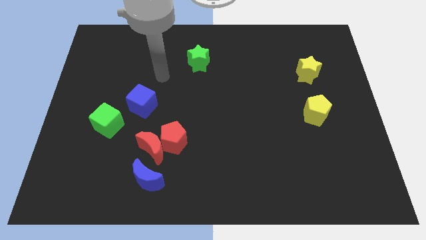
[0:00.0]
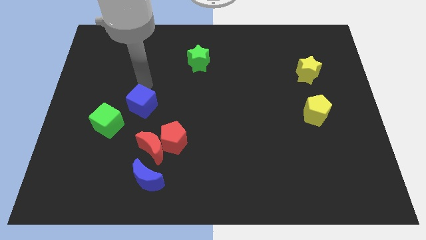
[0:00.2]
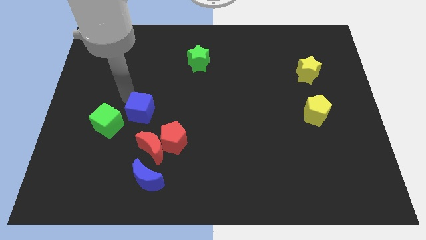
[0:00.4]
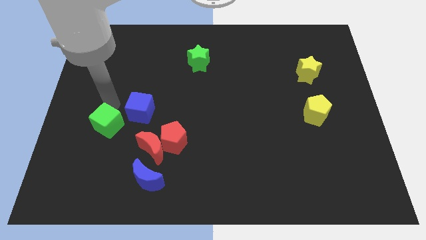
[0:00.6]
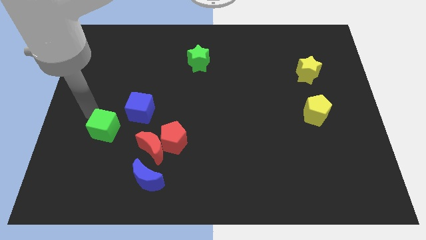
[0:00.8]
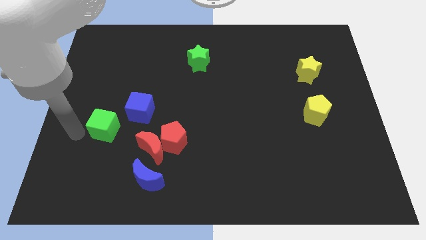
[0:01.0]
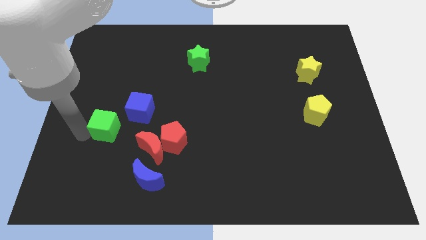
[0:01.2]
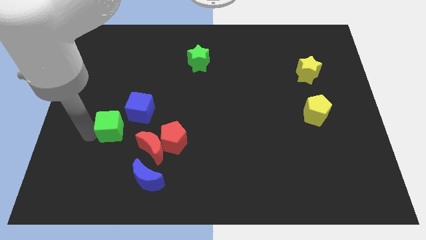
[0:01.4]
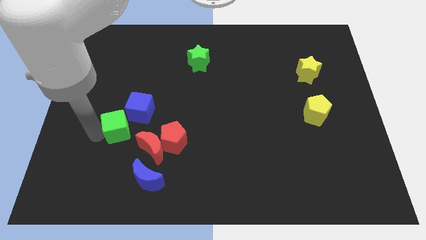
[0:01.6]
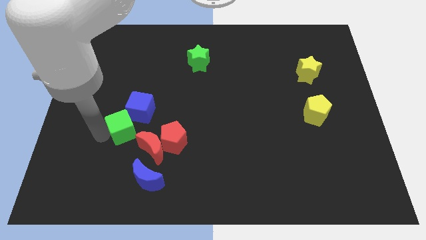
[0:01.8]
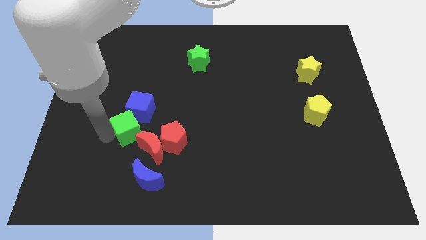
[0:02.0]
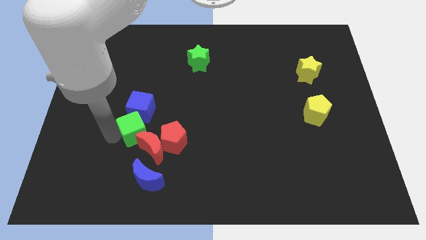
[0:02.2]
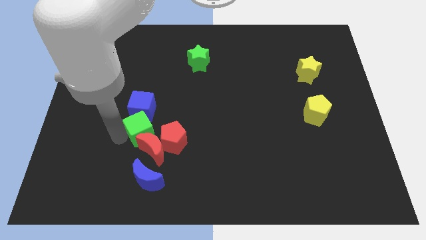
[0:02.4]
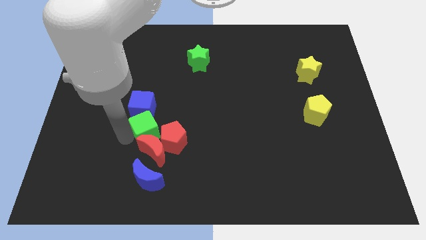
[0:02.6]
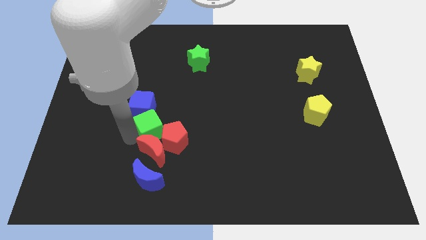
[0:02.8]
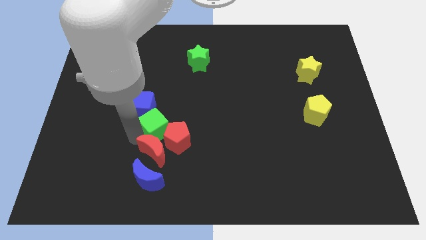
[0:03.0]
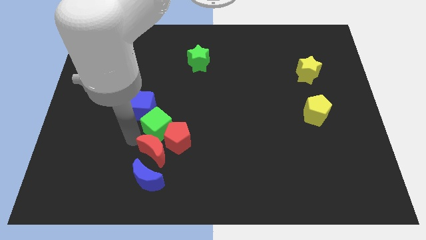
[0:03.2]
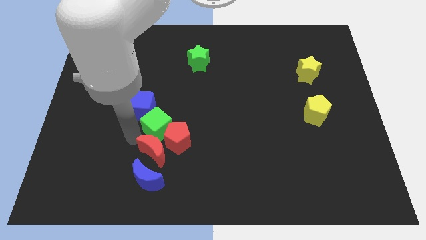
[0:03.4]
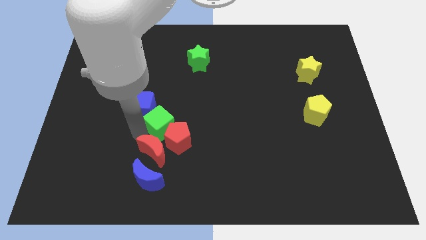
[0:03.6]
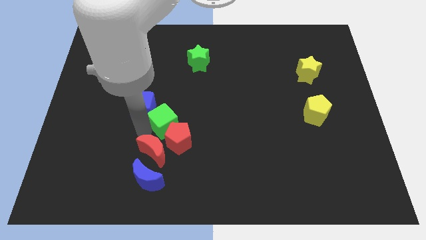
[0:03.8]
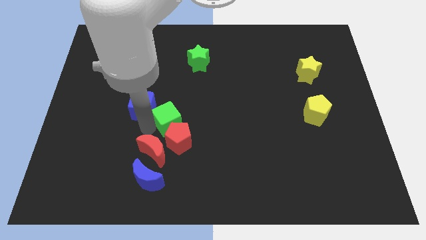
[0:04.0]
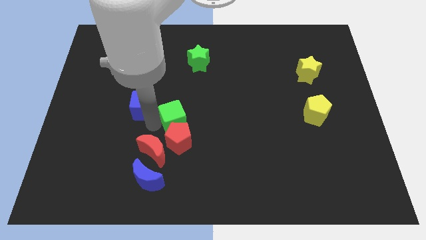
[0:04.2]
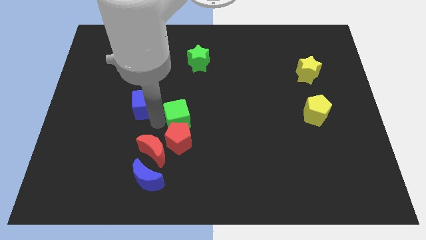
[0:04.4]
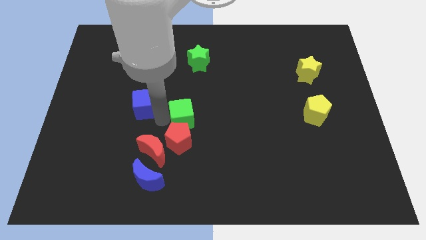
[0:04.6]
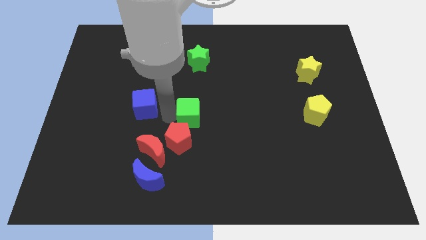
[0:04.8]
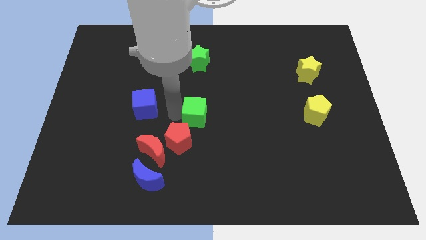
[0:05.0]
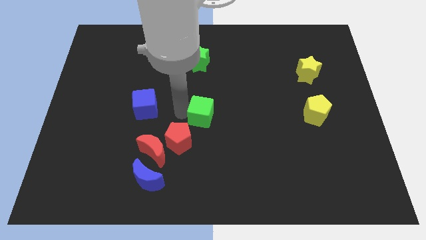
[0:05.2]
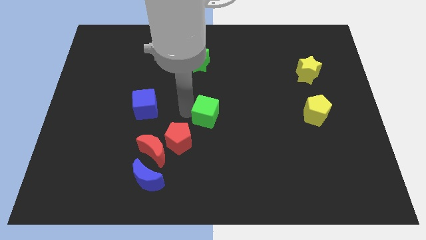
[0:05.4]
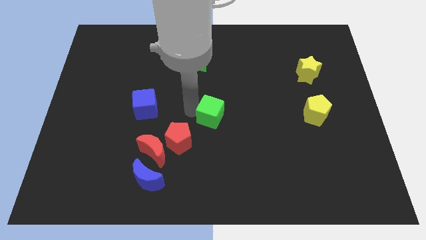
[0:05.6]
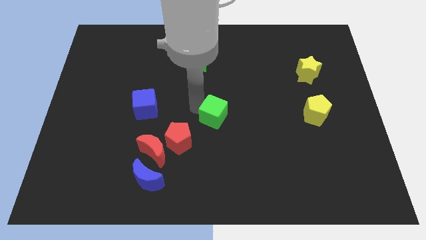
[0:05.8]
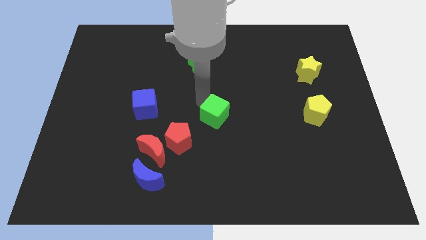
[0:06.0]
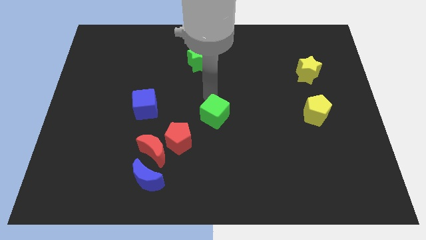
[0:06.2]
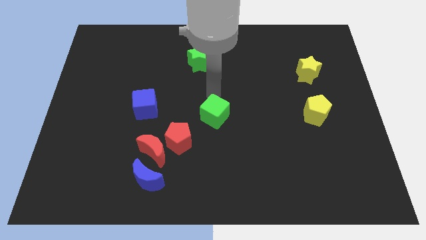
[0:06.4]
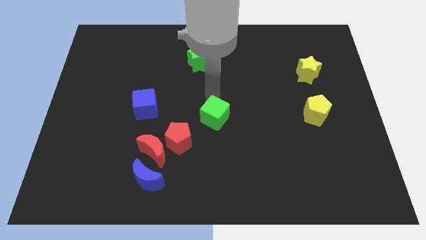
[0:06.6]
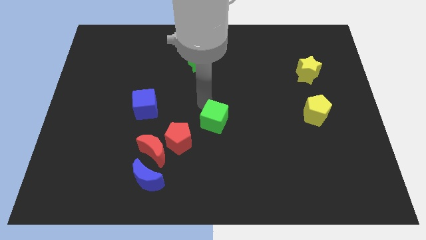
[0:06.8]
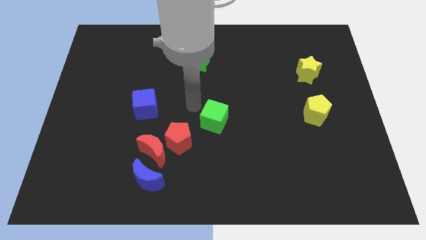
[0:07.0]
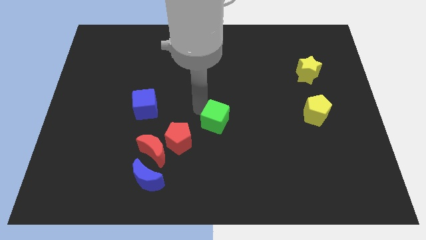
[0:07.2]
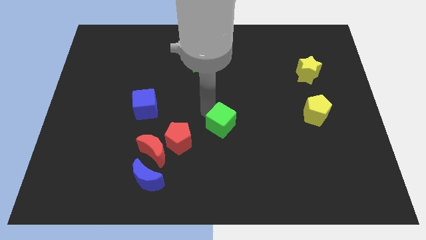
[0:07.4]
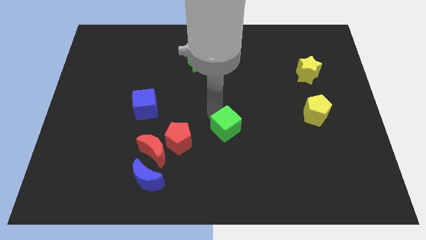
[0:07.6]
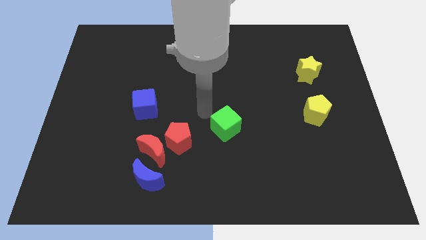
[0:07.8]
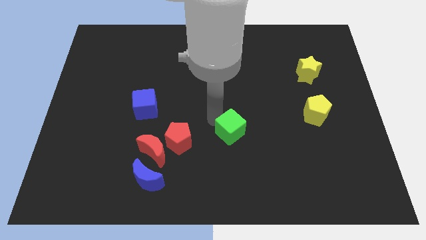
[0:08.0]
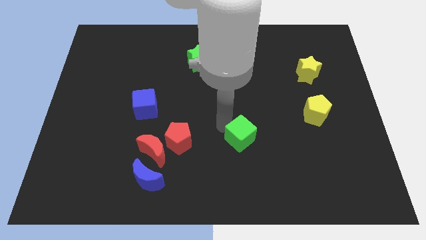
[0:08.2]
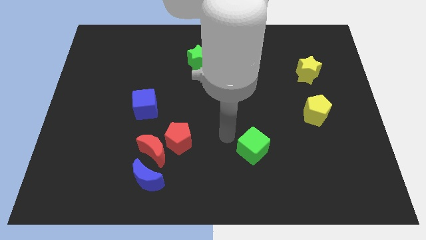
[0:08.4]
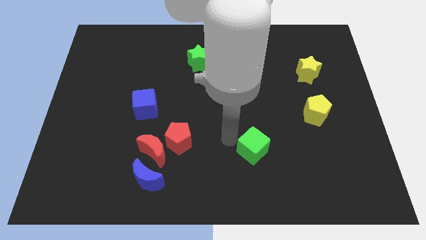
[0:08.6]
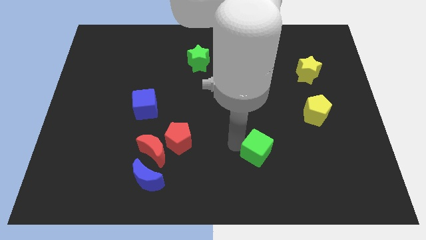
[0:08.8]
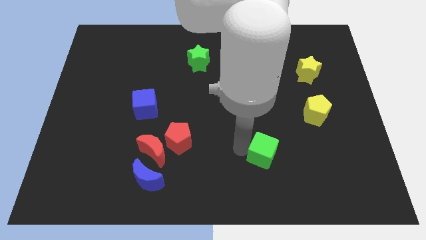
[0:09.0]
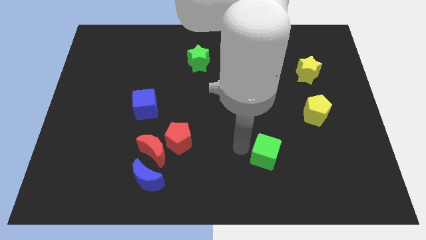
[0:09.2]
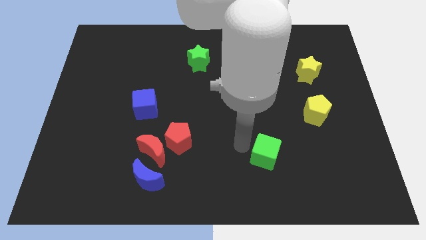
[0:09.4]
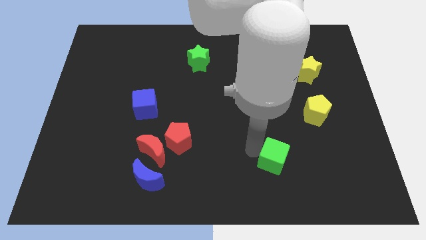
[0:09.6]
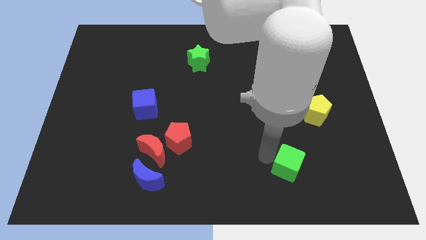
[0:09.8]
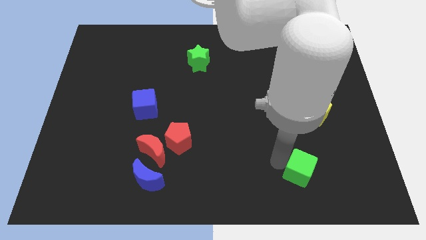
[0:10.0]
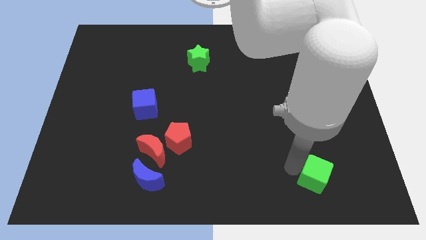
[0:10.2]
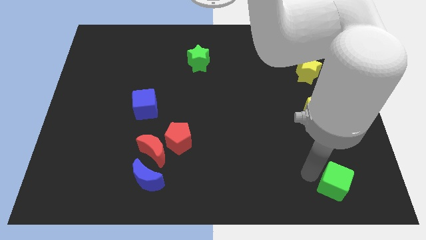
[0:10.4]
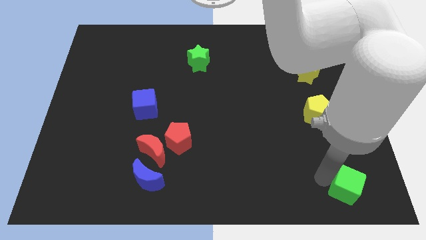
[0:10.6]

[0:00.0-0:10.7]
slide the green cube to the bottom right

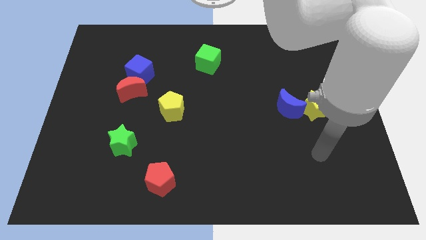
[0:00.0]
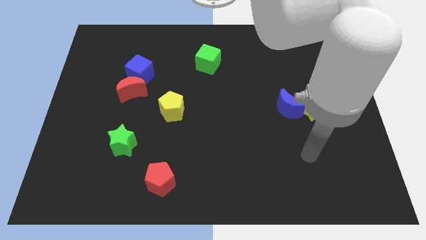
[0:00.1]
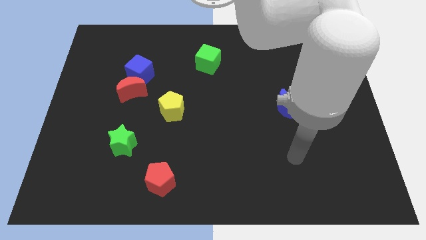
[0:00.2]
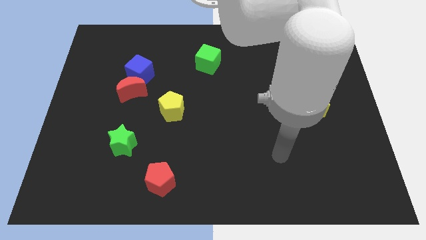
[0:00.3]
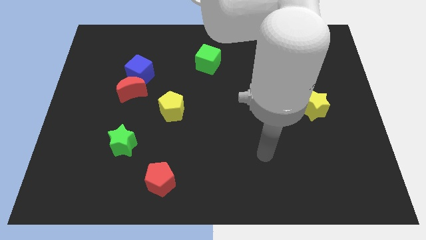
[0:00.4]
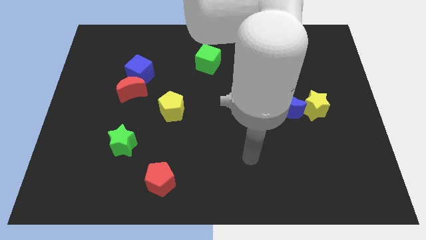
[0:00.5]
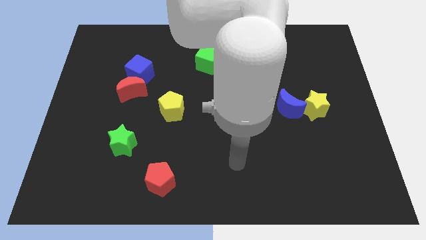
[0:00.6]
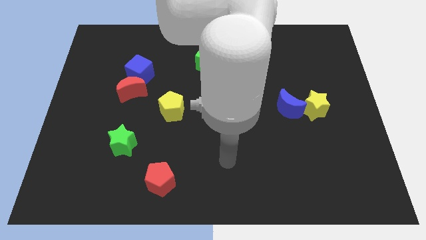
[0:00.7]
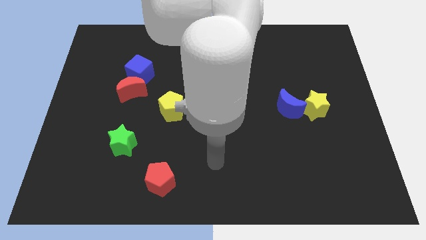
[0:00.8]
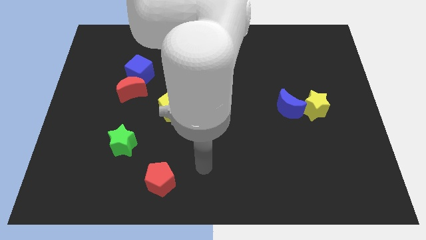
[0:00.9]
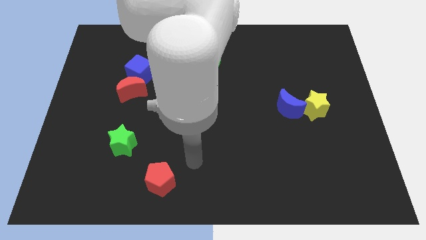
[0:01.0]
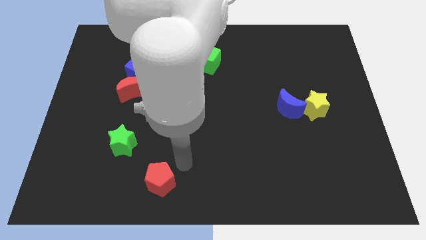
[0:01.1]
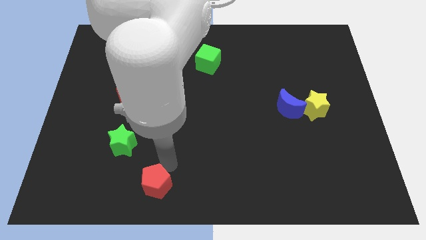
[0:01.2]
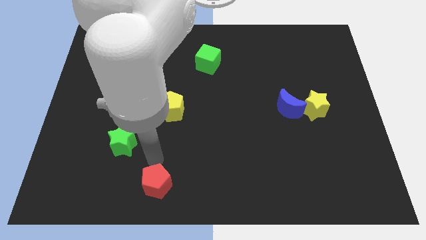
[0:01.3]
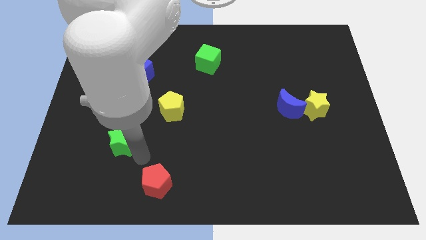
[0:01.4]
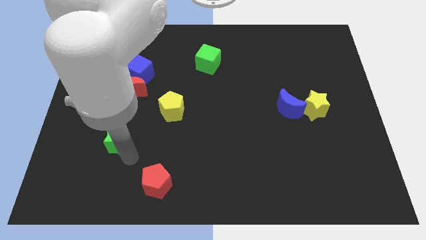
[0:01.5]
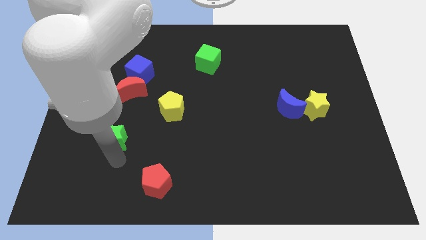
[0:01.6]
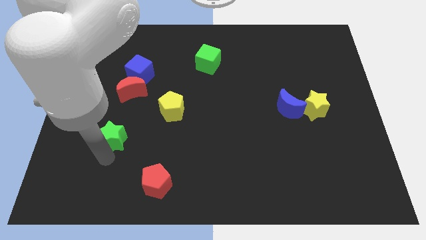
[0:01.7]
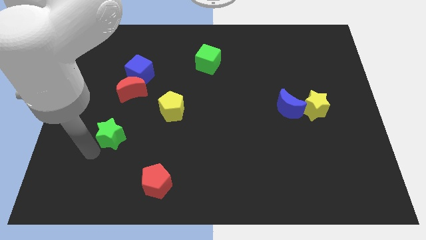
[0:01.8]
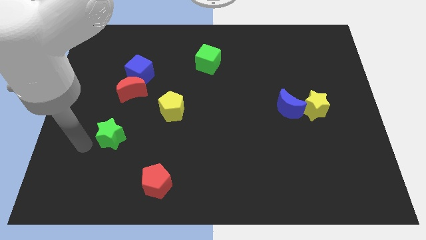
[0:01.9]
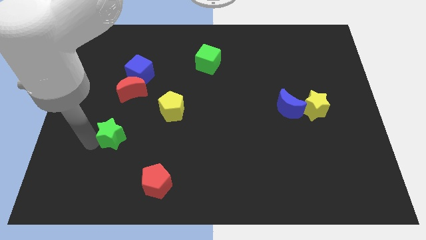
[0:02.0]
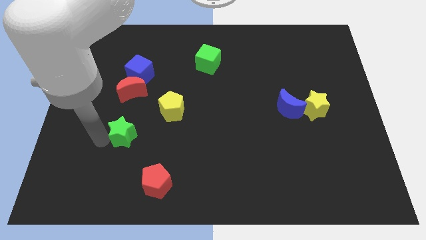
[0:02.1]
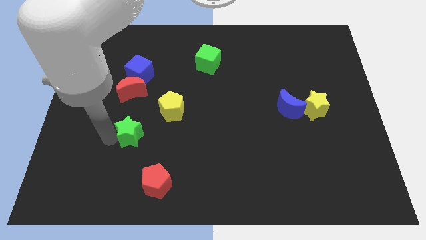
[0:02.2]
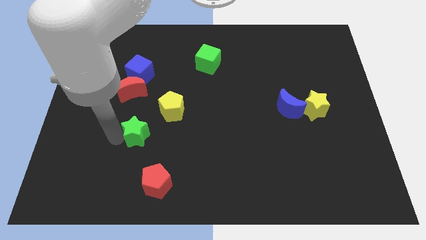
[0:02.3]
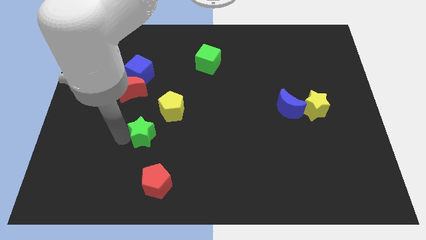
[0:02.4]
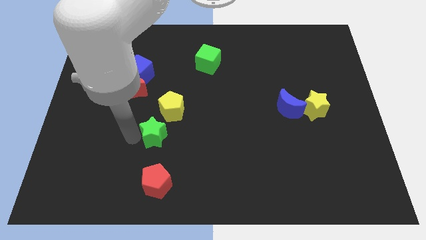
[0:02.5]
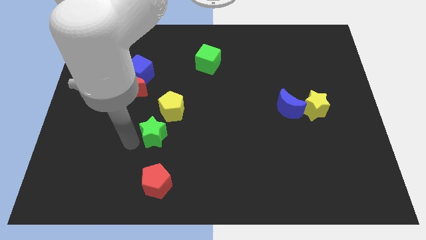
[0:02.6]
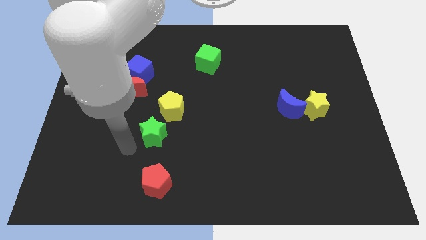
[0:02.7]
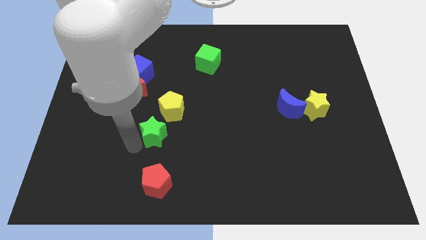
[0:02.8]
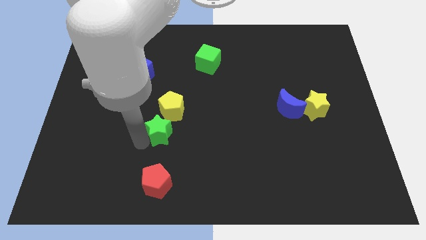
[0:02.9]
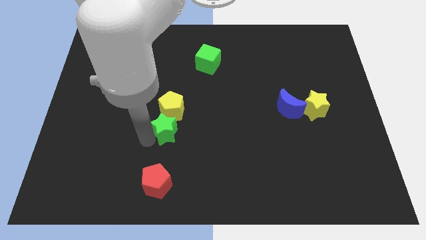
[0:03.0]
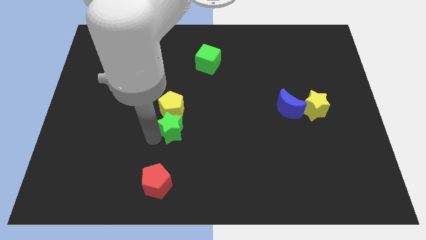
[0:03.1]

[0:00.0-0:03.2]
push the green star to the middle
